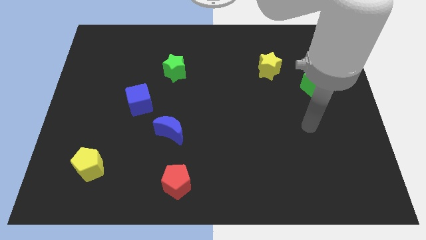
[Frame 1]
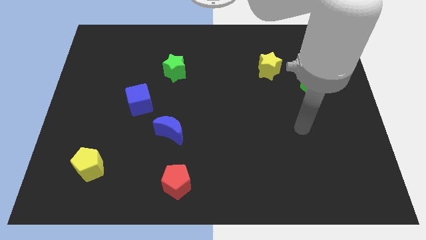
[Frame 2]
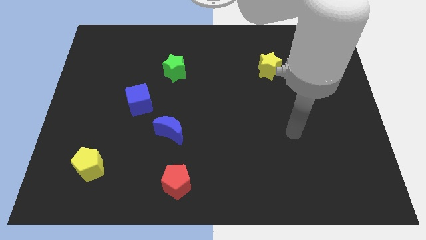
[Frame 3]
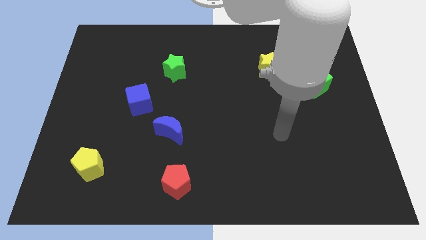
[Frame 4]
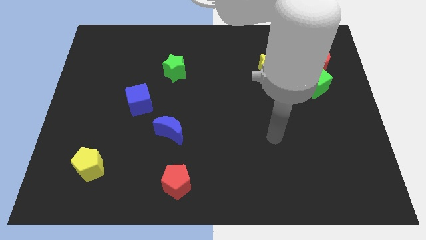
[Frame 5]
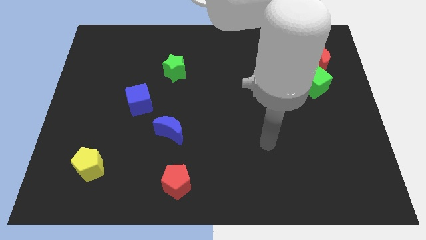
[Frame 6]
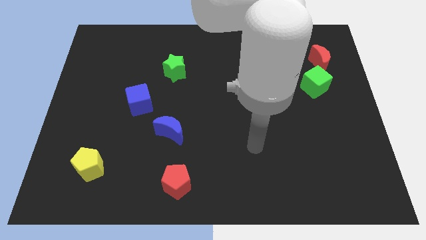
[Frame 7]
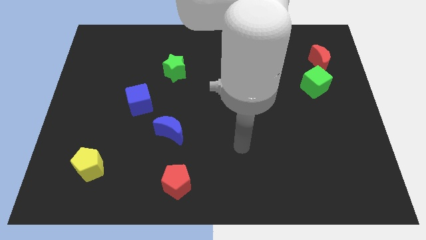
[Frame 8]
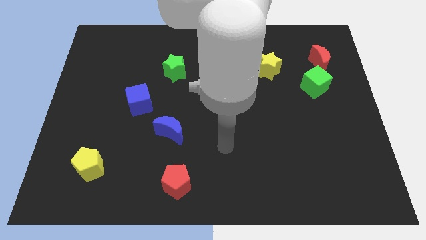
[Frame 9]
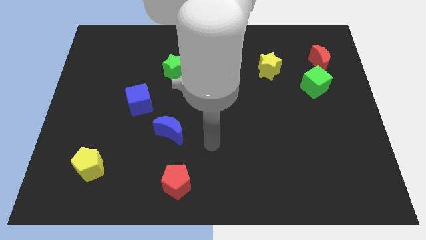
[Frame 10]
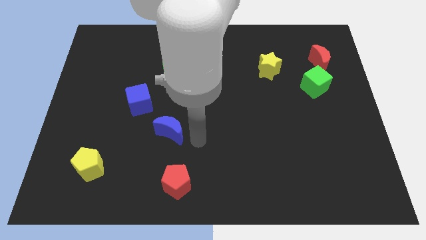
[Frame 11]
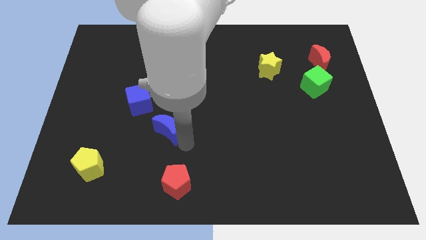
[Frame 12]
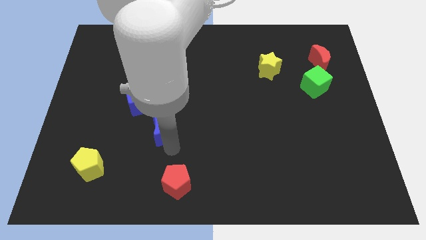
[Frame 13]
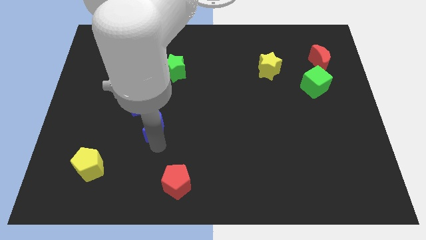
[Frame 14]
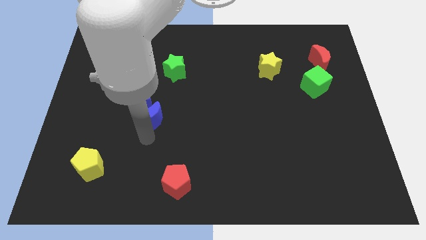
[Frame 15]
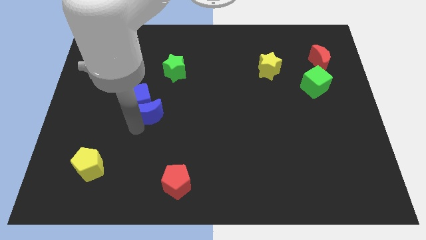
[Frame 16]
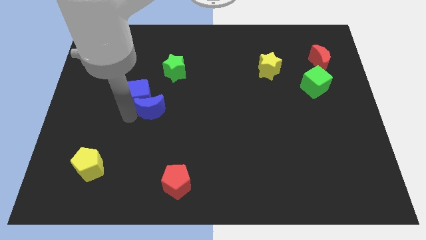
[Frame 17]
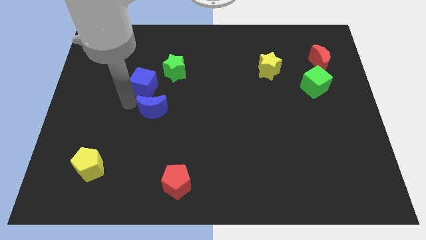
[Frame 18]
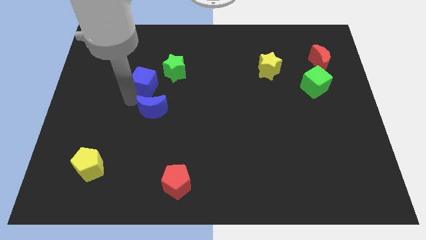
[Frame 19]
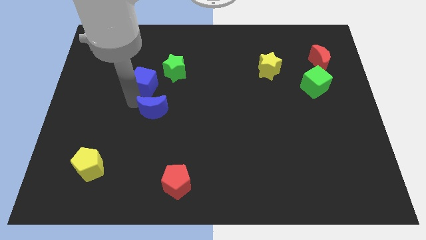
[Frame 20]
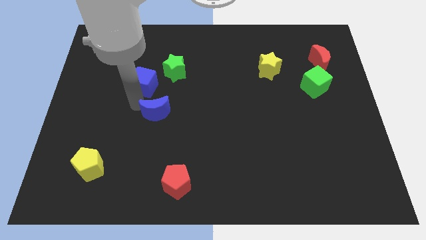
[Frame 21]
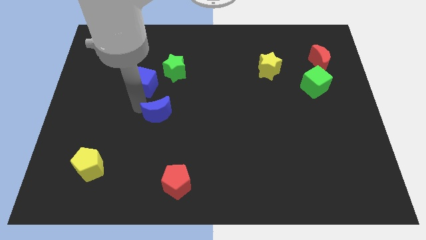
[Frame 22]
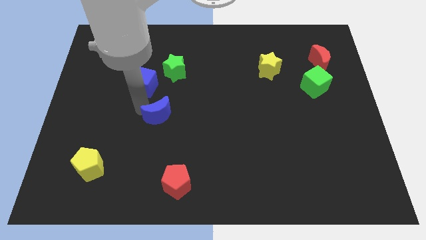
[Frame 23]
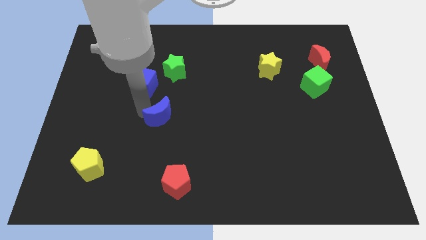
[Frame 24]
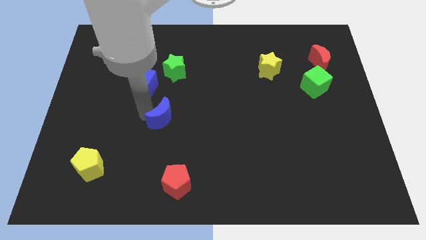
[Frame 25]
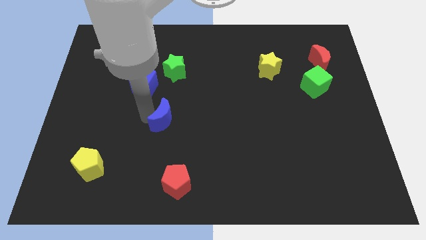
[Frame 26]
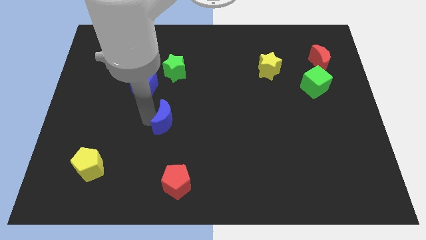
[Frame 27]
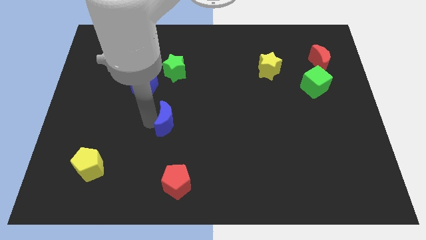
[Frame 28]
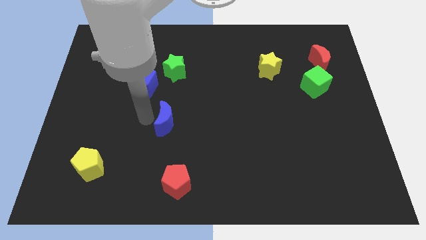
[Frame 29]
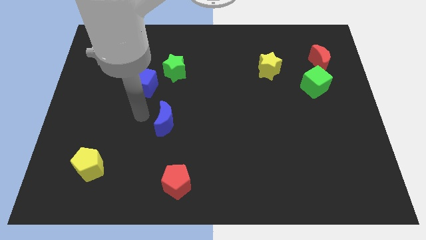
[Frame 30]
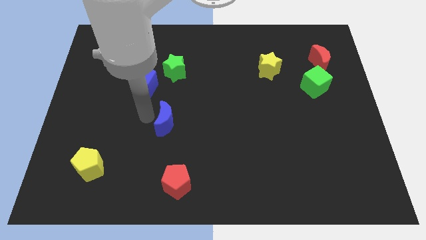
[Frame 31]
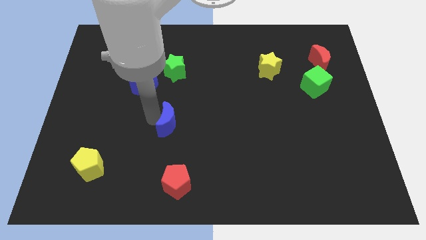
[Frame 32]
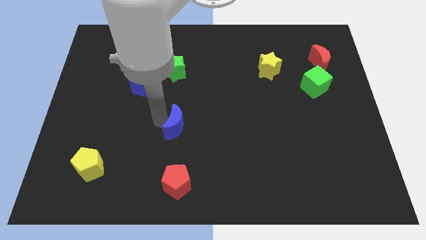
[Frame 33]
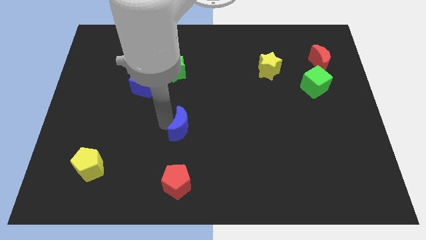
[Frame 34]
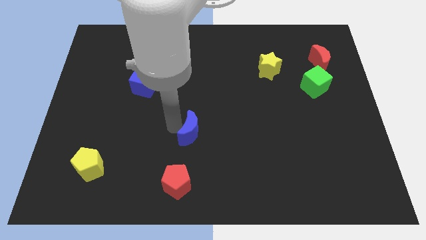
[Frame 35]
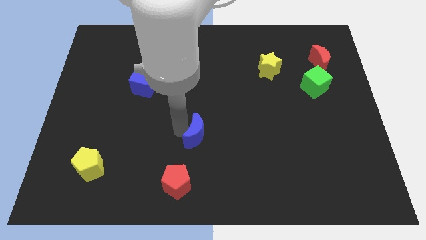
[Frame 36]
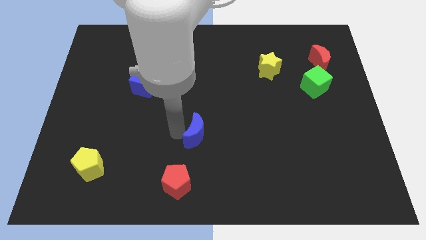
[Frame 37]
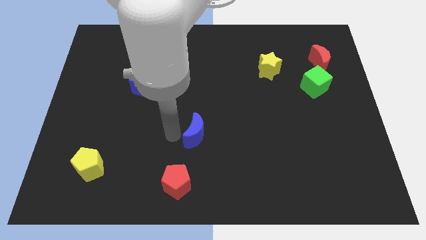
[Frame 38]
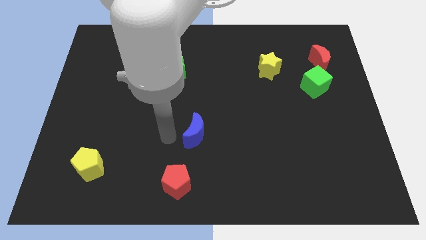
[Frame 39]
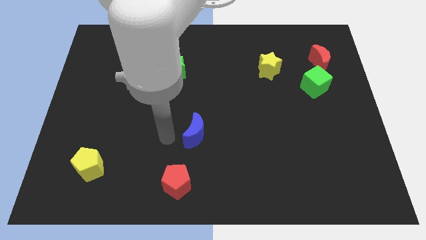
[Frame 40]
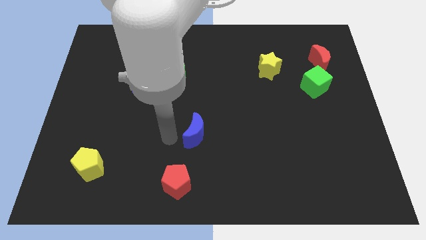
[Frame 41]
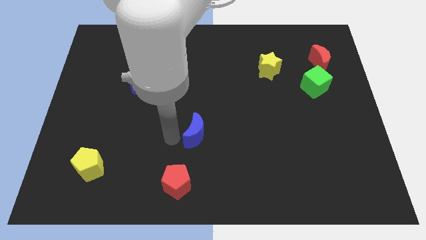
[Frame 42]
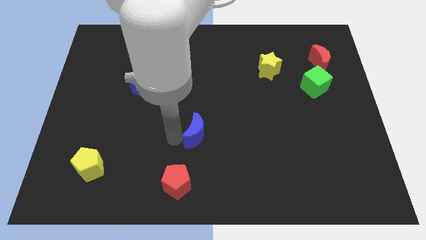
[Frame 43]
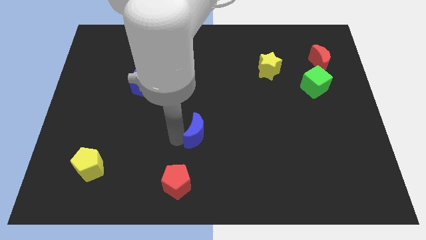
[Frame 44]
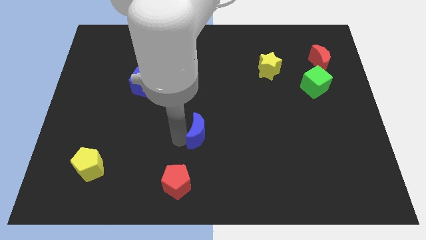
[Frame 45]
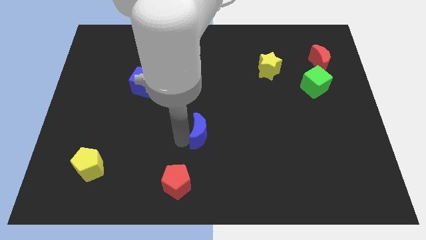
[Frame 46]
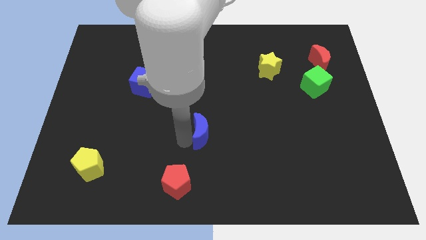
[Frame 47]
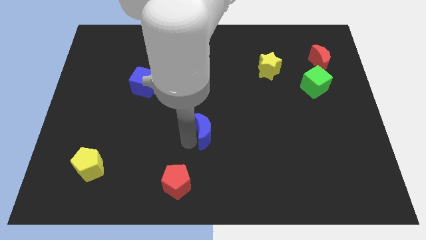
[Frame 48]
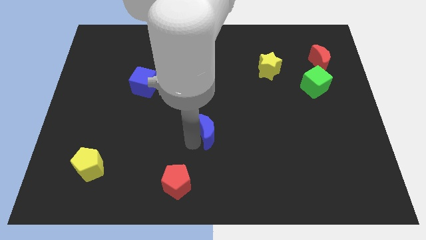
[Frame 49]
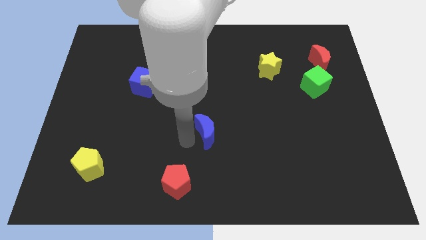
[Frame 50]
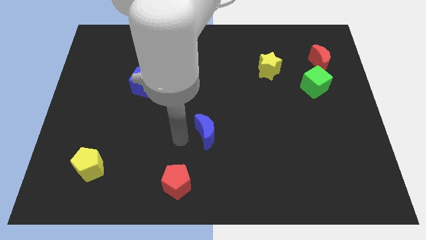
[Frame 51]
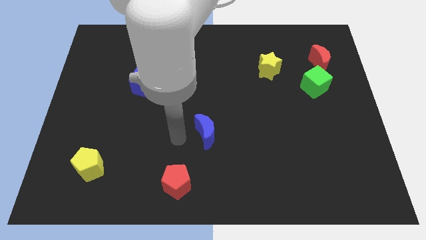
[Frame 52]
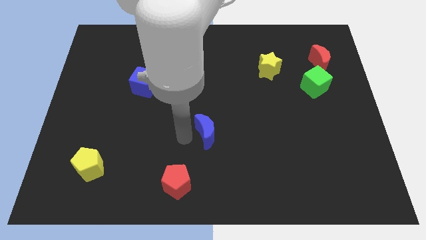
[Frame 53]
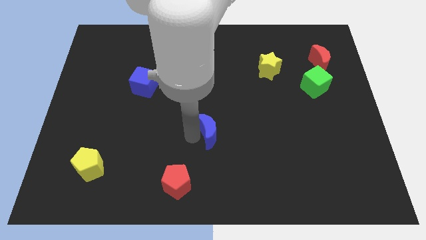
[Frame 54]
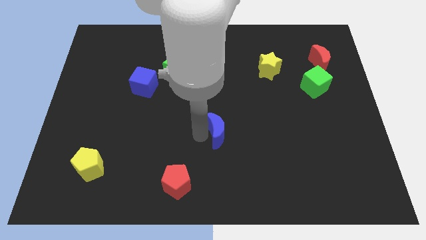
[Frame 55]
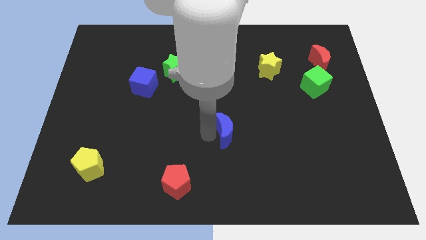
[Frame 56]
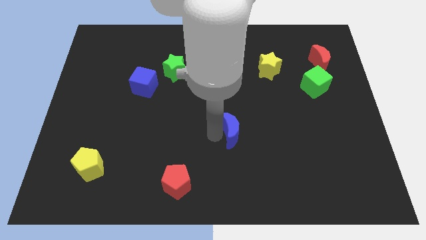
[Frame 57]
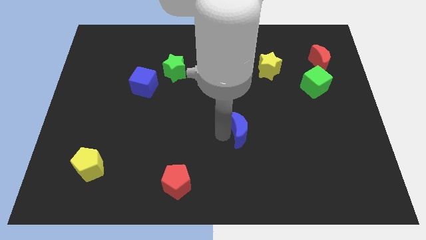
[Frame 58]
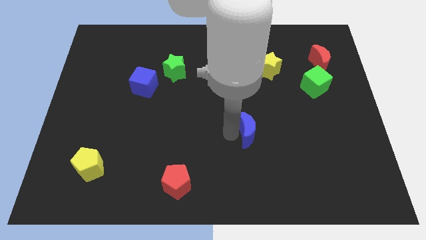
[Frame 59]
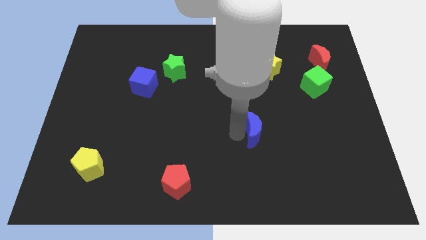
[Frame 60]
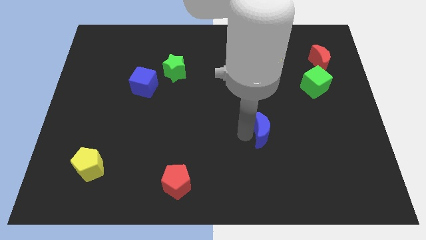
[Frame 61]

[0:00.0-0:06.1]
slide the blue moon to the right

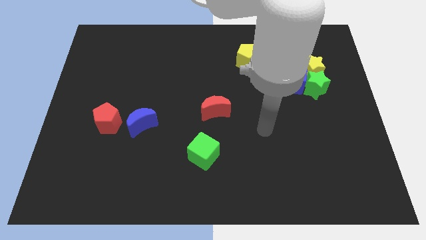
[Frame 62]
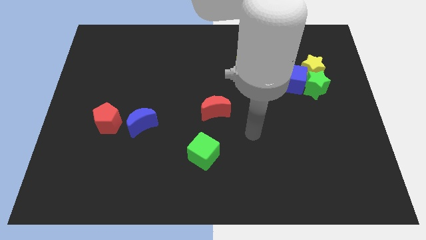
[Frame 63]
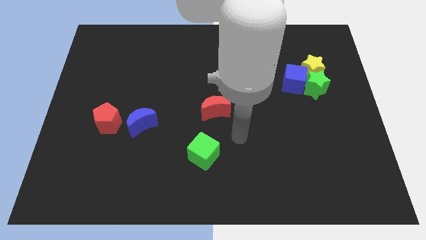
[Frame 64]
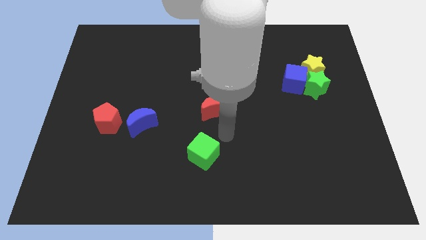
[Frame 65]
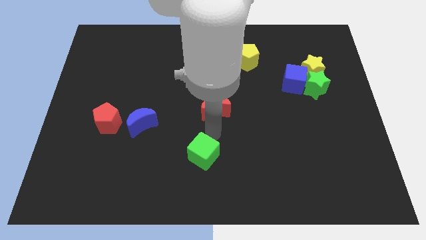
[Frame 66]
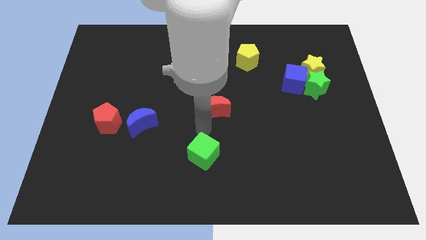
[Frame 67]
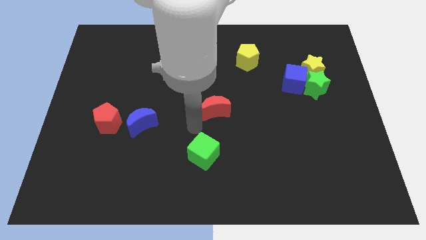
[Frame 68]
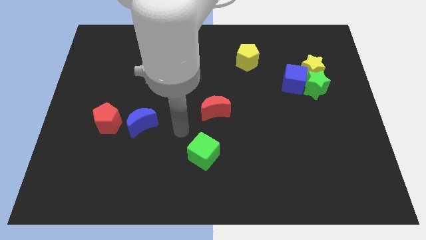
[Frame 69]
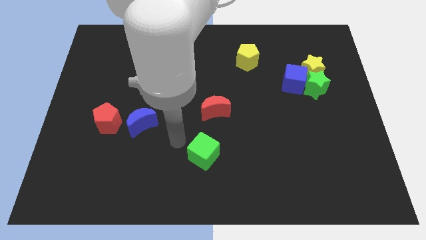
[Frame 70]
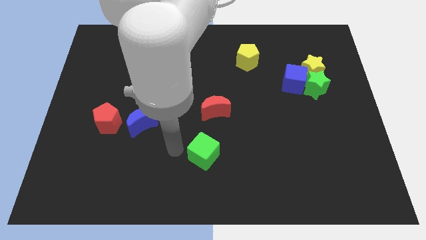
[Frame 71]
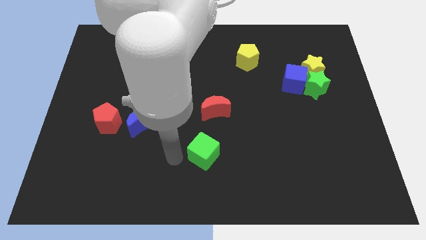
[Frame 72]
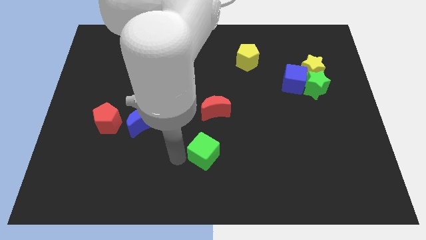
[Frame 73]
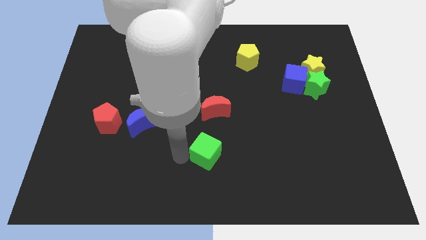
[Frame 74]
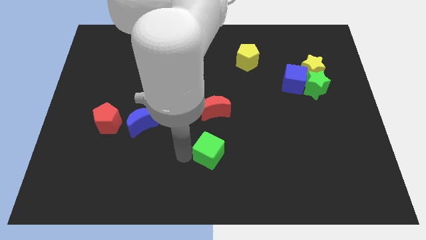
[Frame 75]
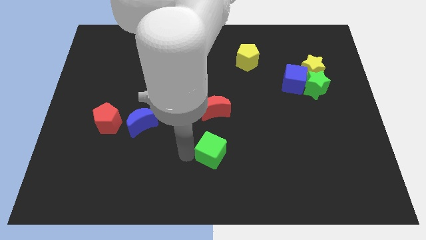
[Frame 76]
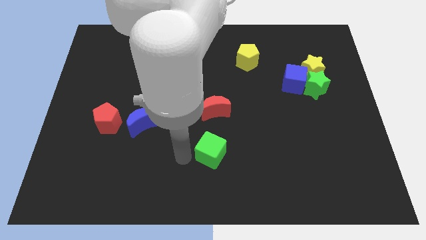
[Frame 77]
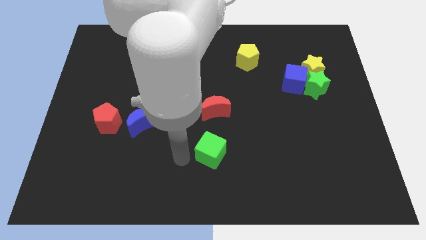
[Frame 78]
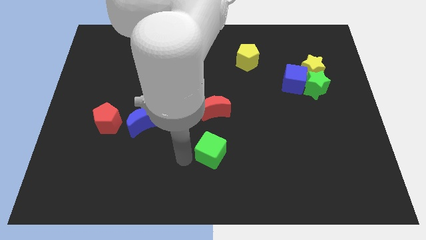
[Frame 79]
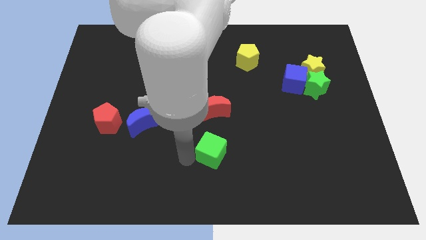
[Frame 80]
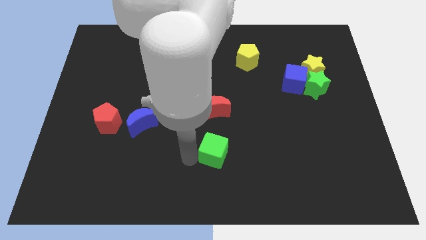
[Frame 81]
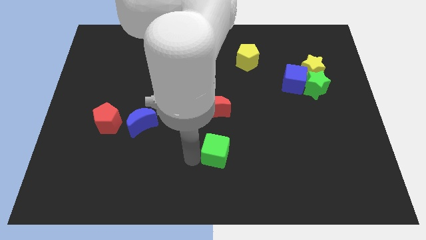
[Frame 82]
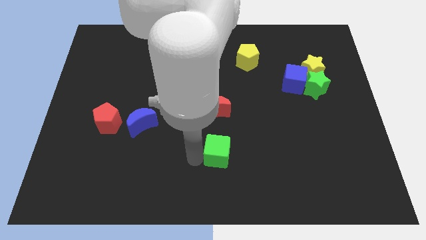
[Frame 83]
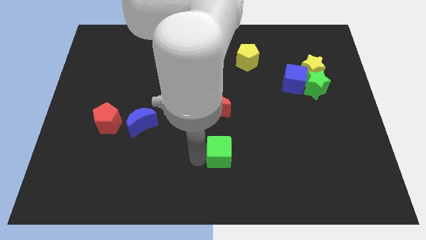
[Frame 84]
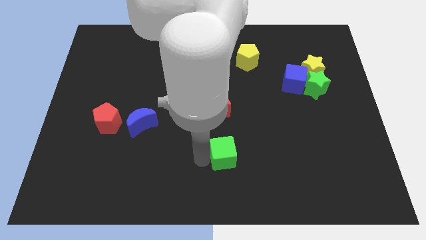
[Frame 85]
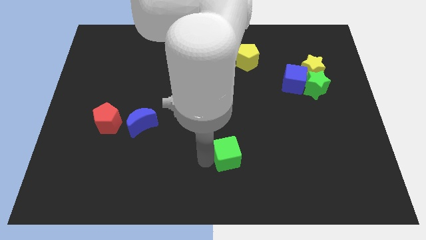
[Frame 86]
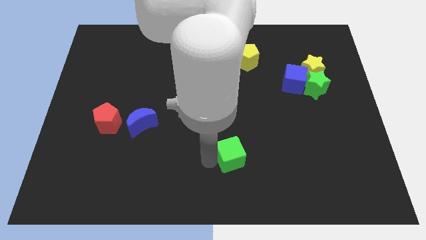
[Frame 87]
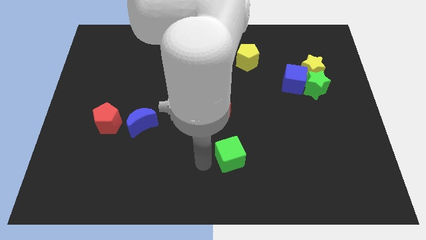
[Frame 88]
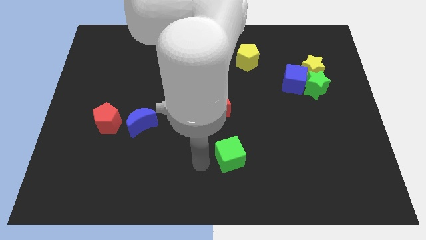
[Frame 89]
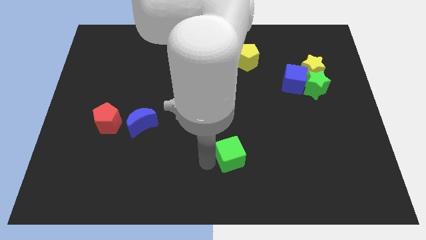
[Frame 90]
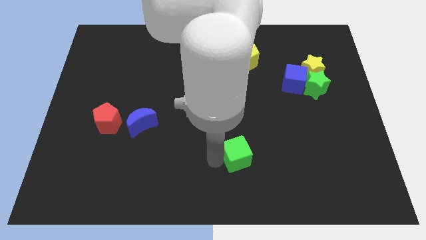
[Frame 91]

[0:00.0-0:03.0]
slightly slide the green cube right
